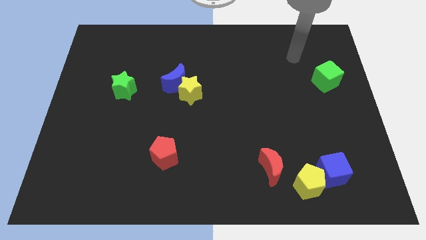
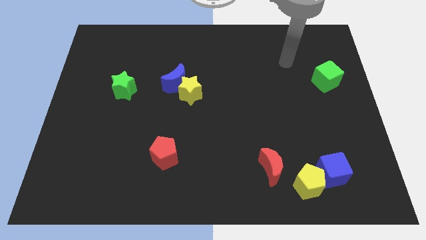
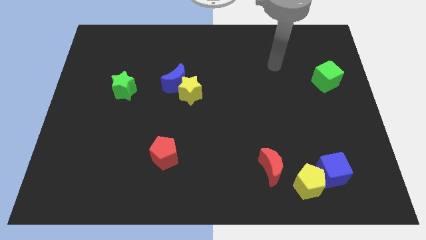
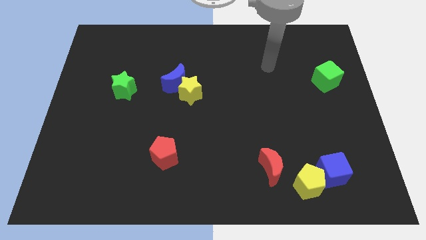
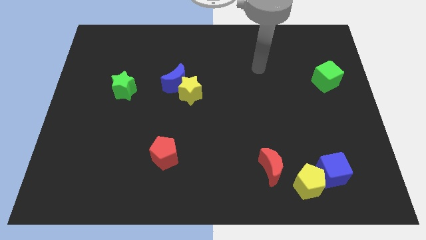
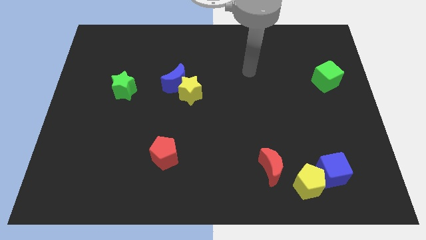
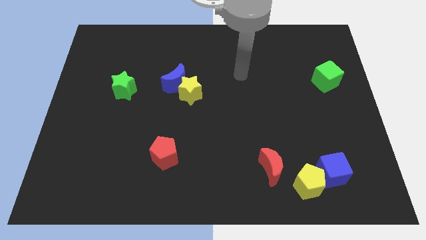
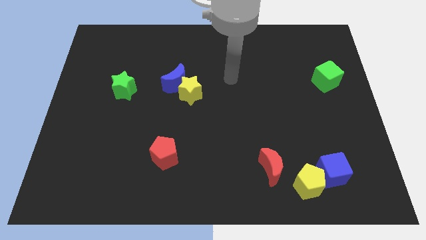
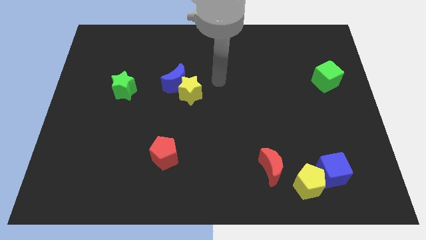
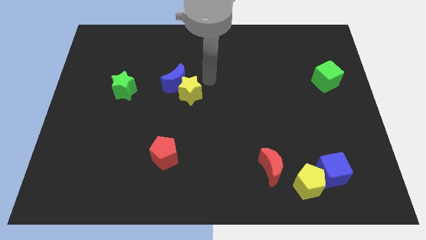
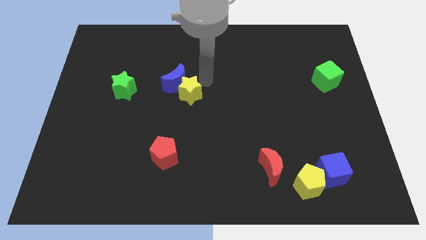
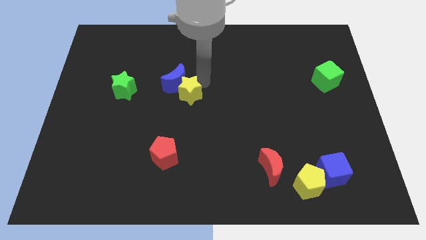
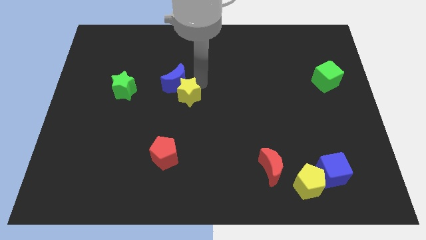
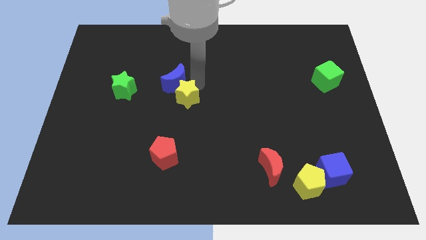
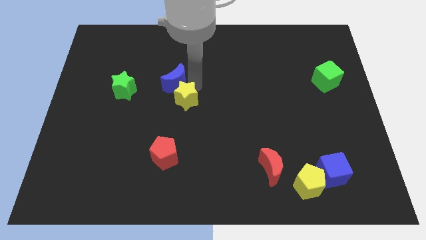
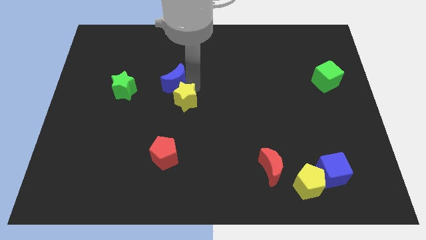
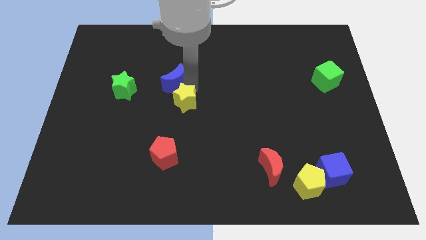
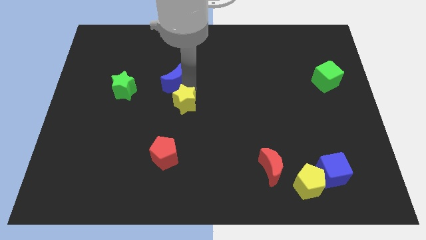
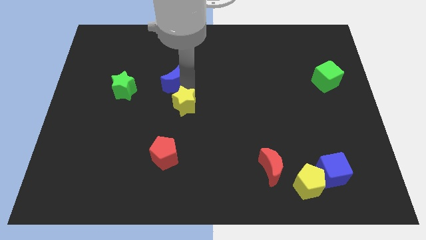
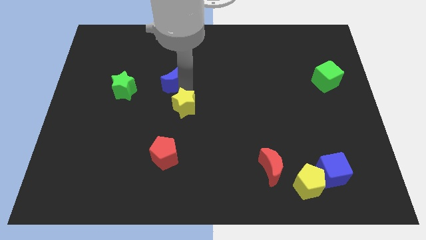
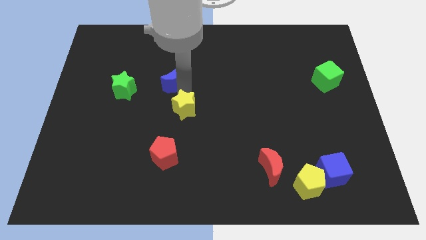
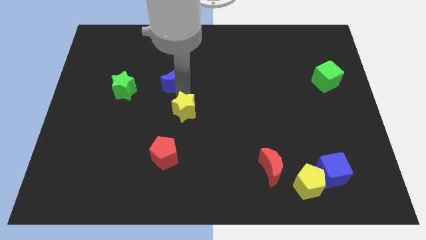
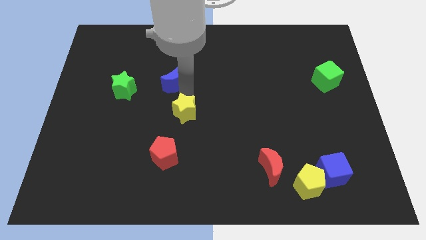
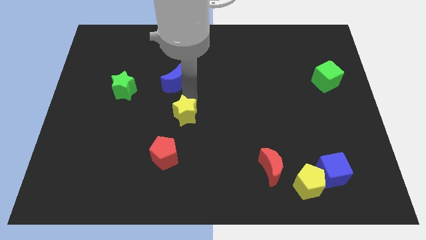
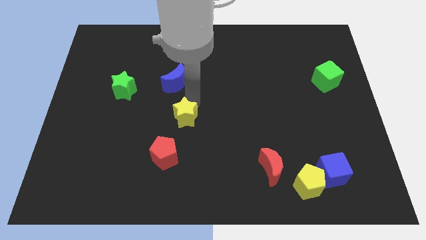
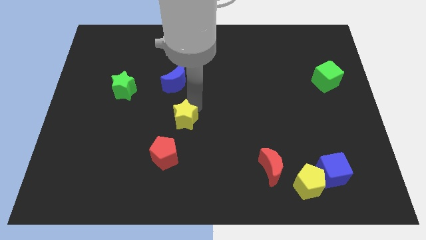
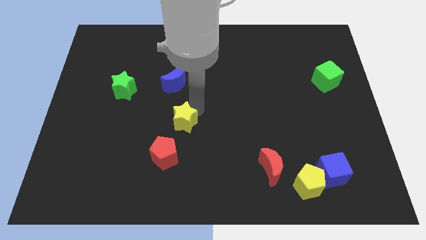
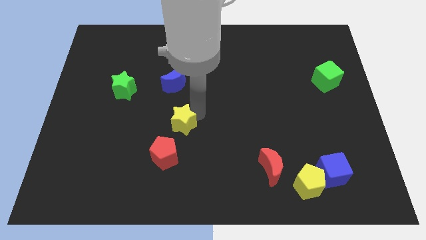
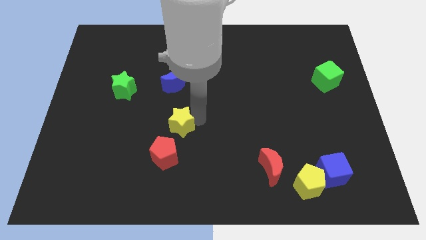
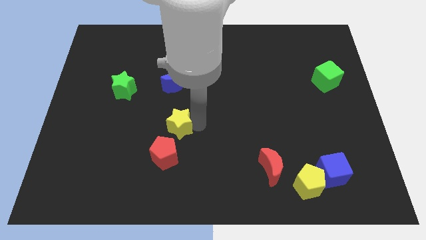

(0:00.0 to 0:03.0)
slightly slide the yellow star down and then left

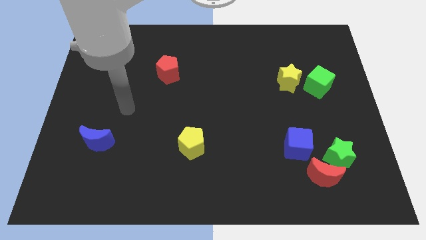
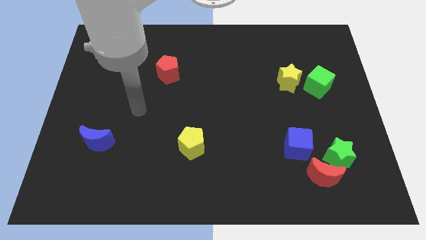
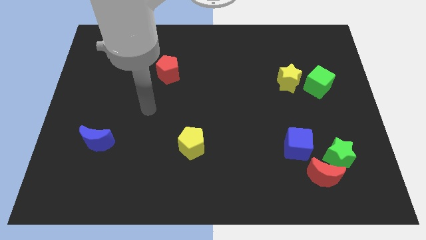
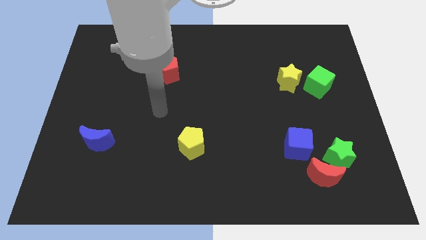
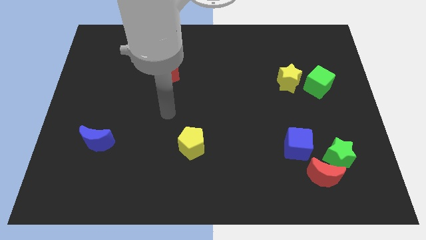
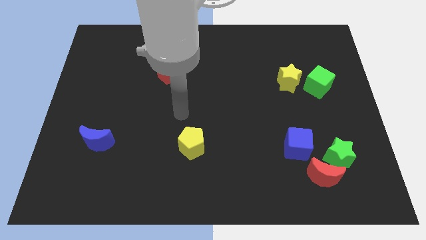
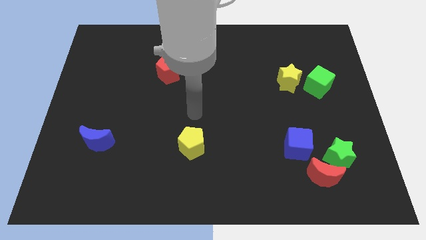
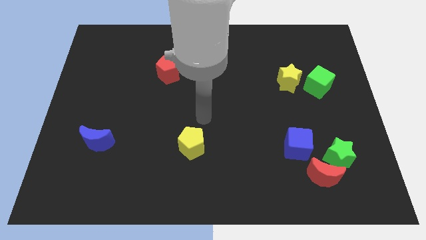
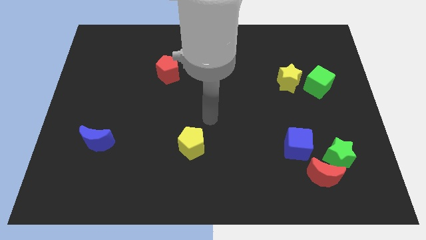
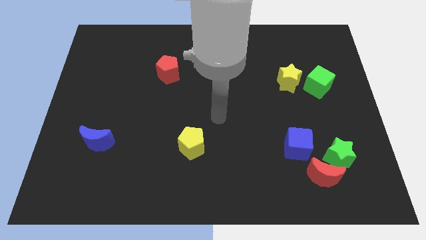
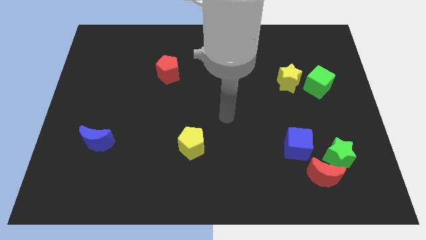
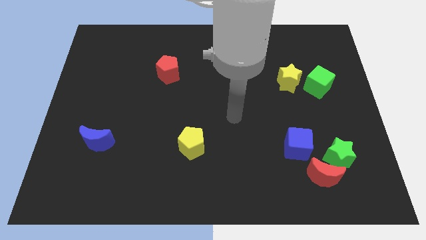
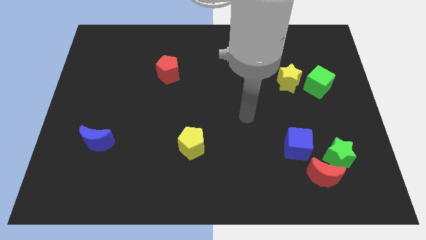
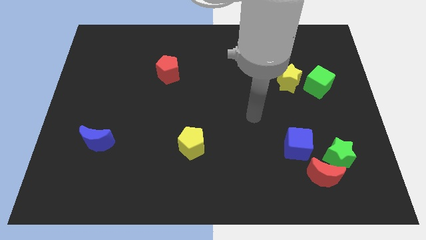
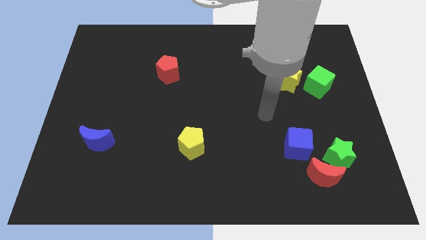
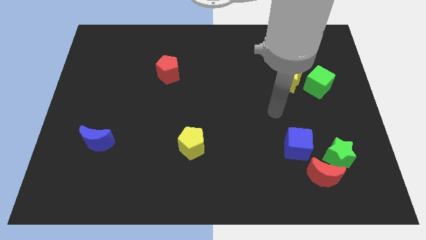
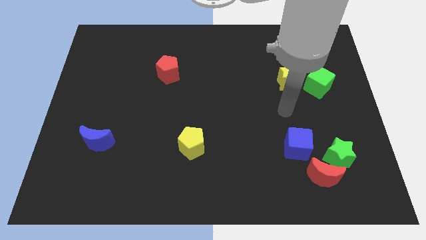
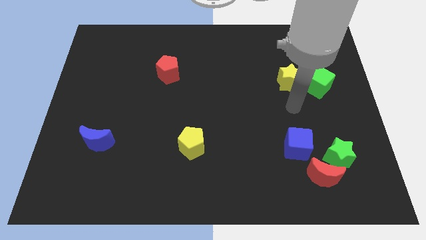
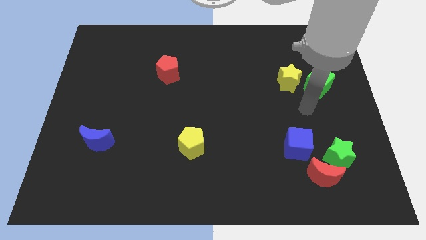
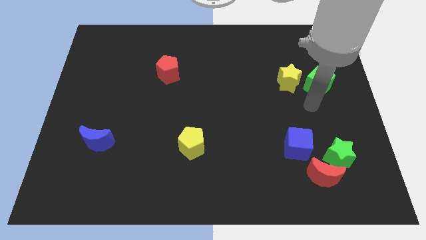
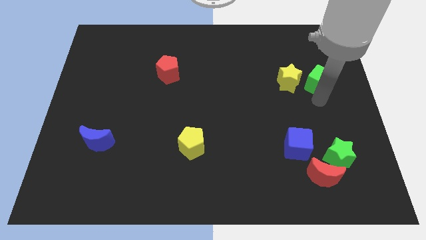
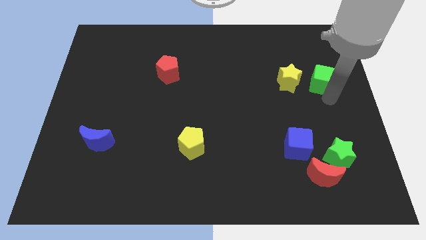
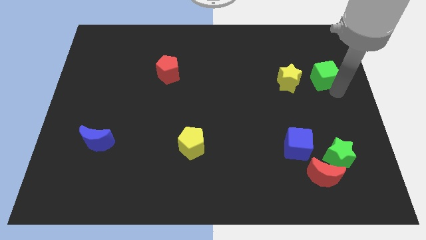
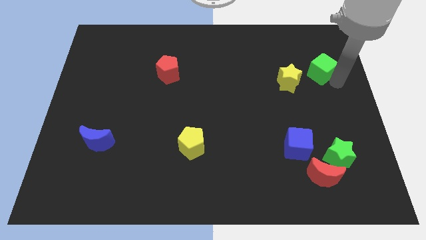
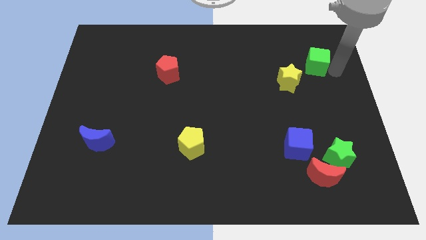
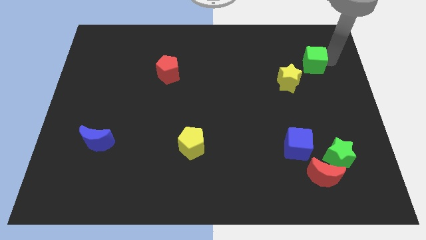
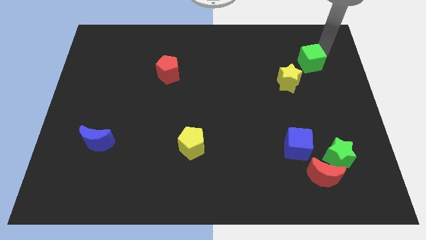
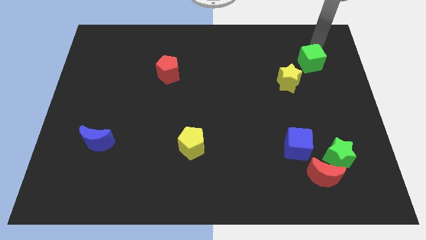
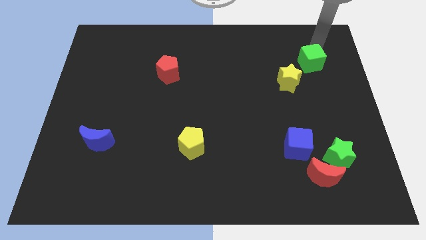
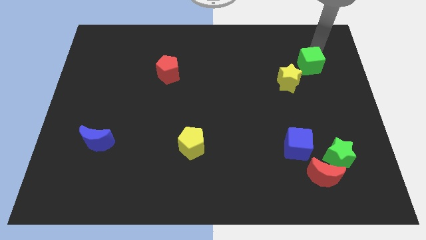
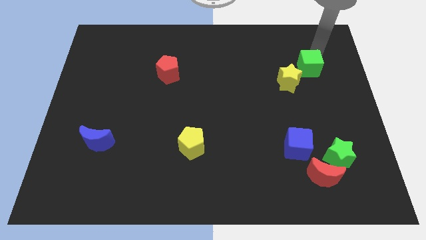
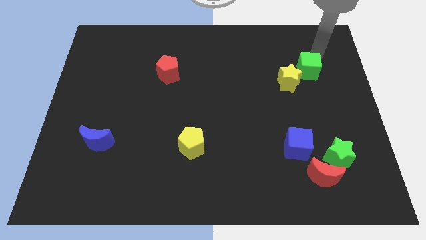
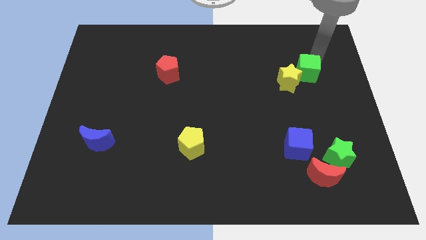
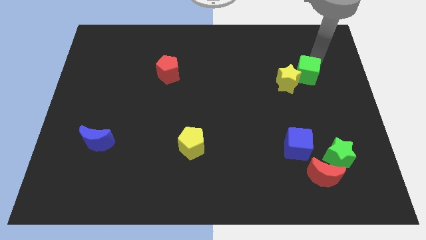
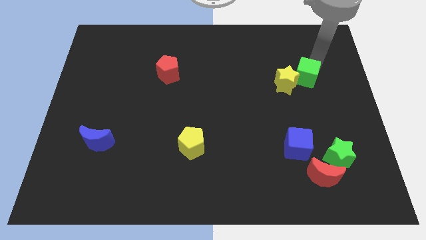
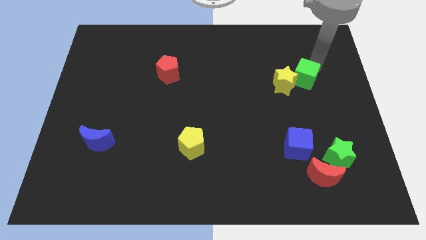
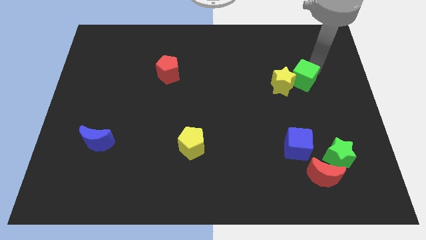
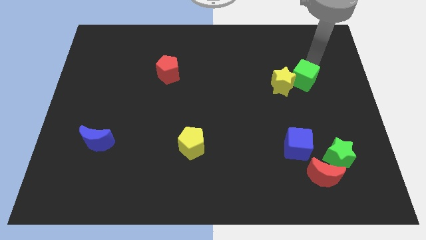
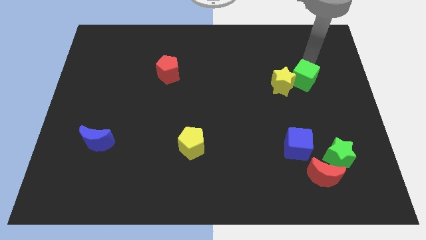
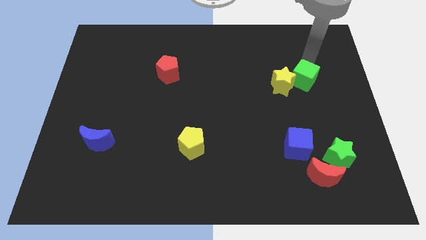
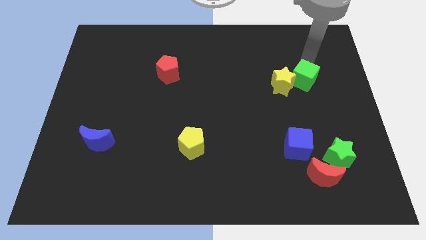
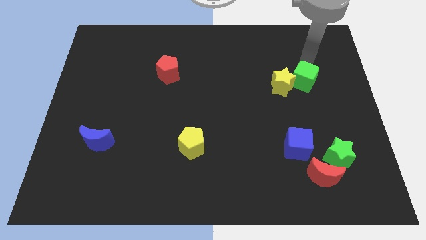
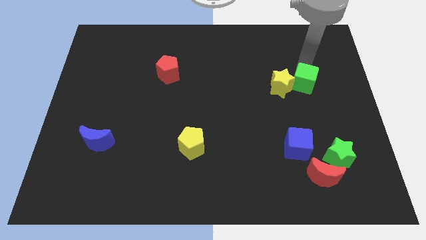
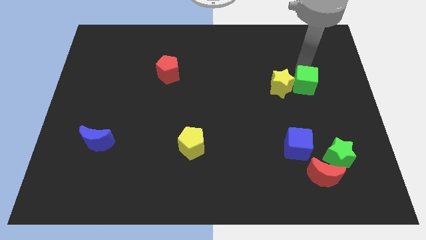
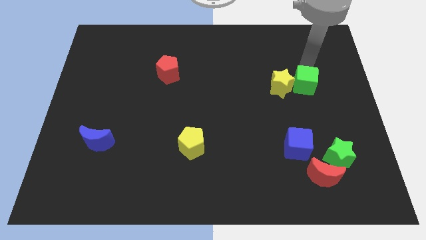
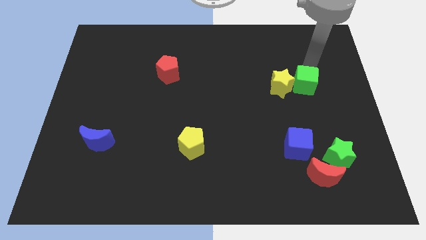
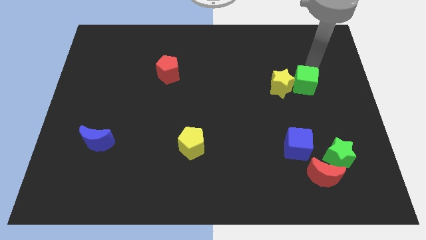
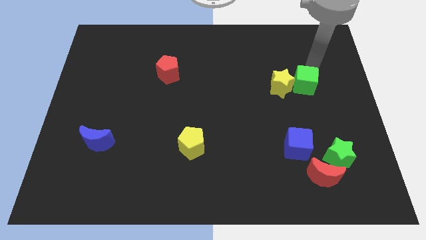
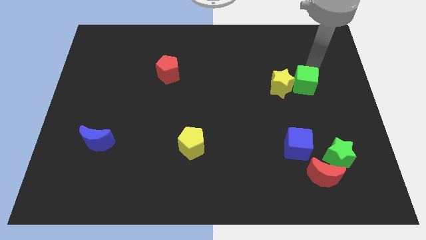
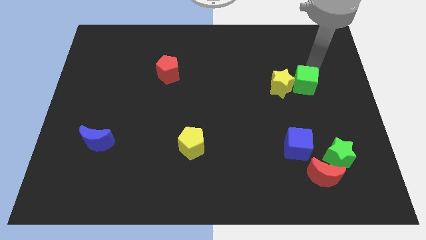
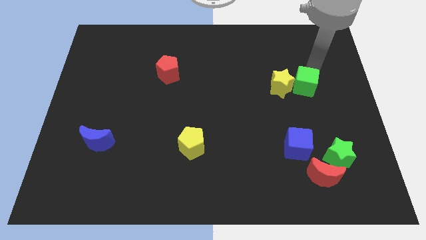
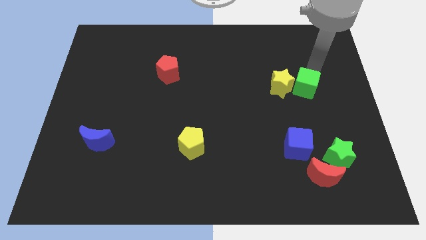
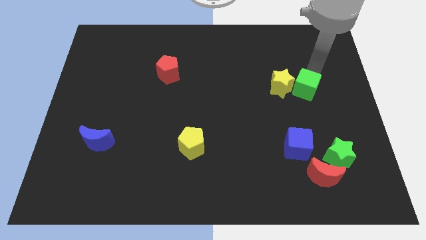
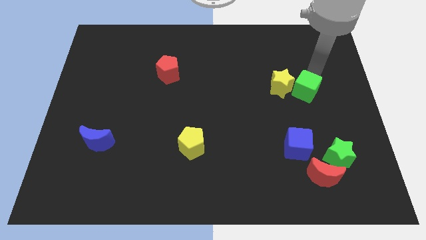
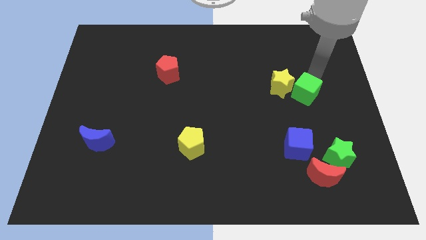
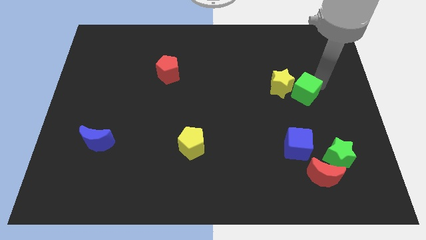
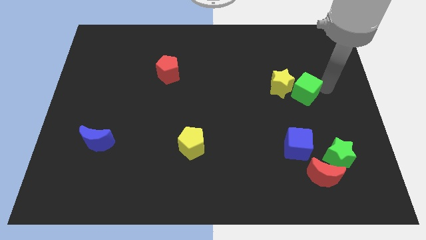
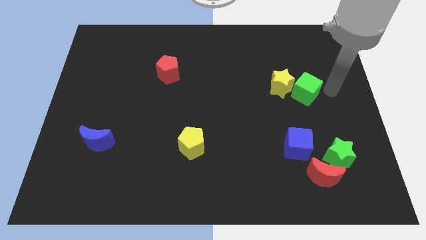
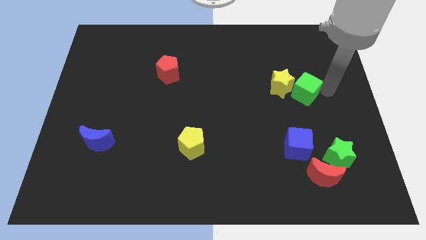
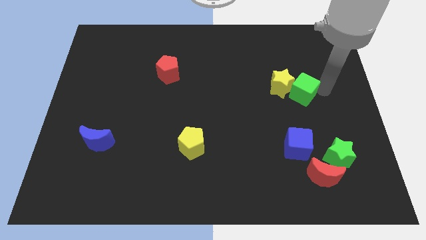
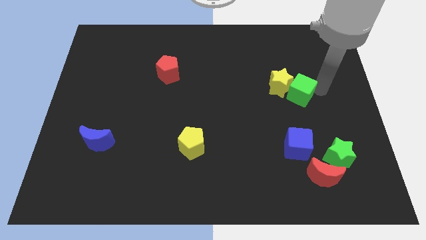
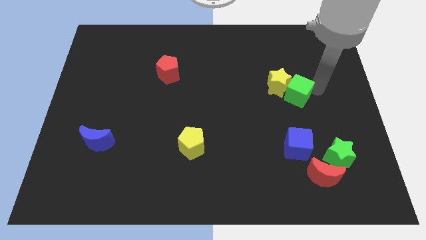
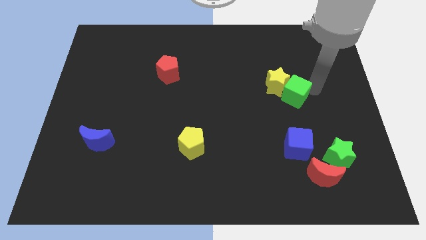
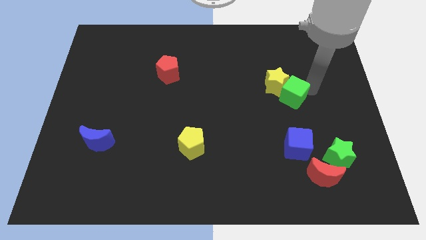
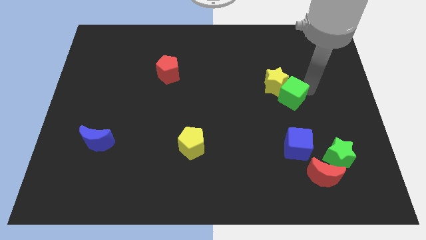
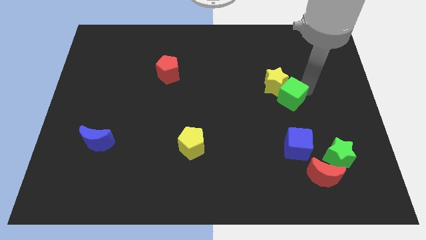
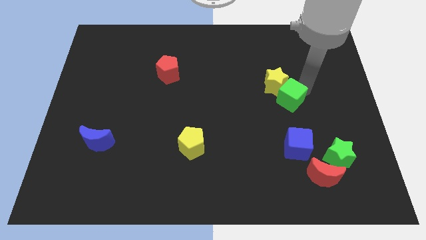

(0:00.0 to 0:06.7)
slide the green cube somewhat left
